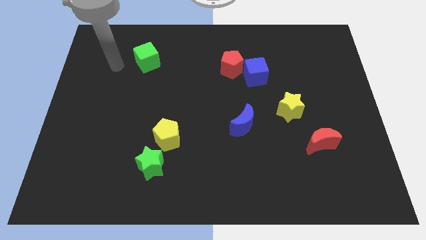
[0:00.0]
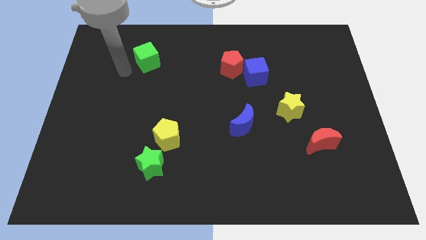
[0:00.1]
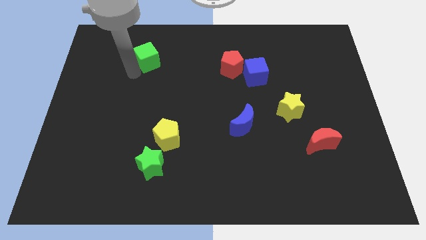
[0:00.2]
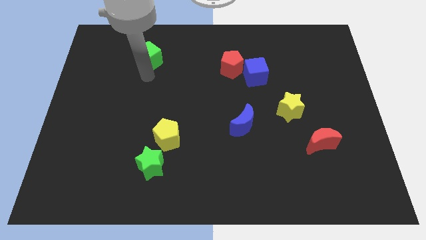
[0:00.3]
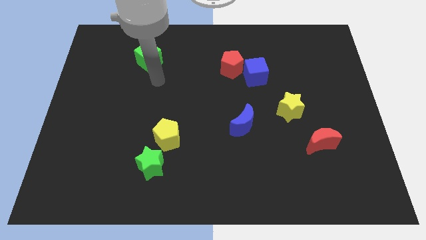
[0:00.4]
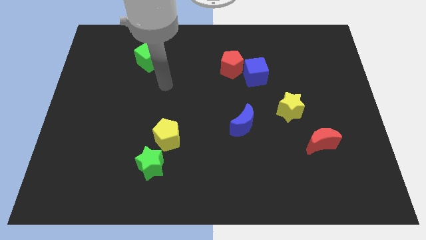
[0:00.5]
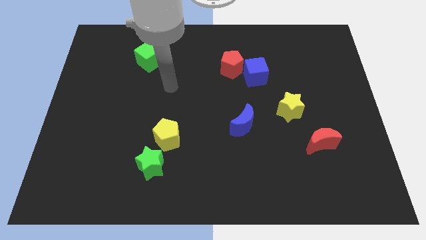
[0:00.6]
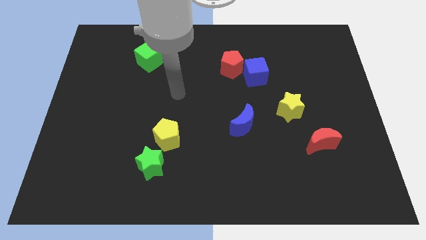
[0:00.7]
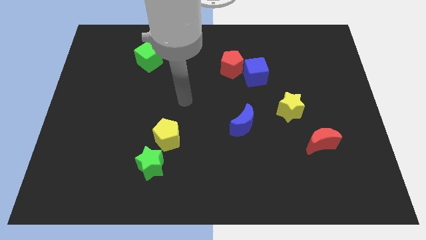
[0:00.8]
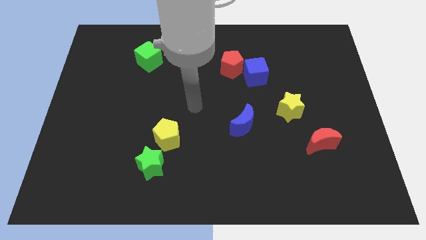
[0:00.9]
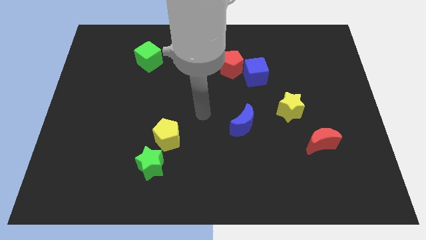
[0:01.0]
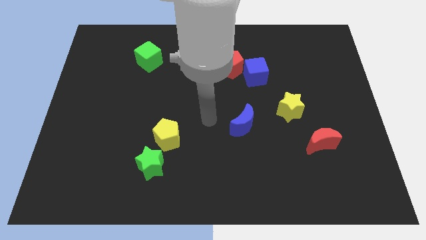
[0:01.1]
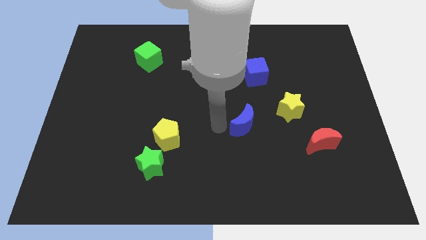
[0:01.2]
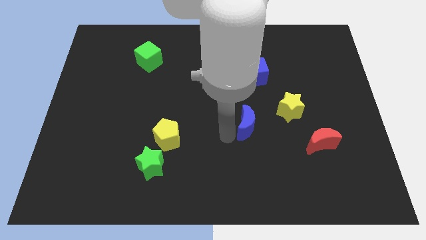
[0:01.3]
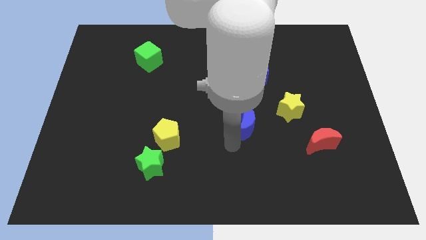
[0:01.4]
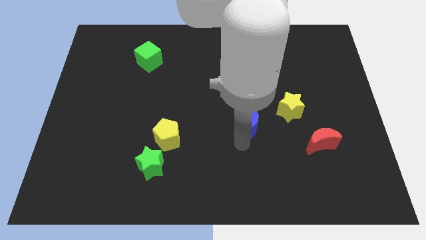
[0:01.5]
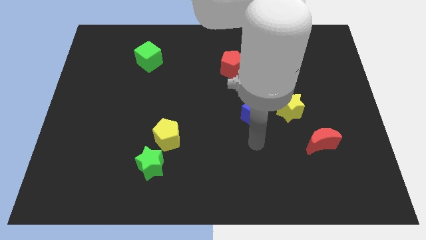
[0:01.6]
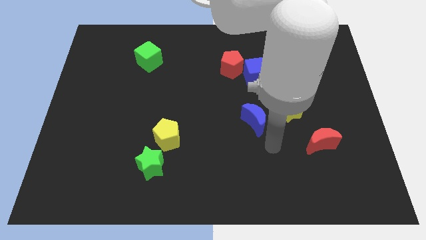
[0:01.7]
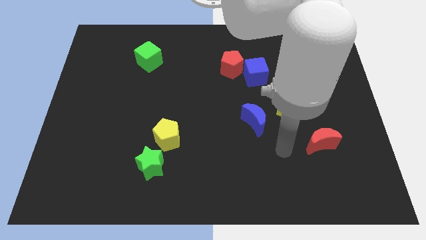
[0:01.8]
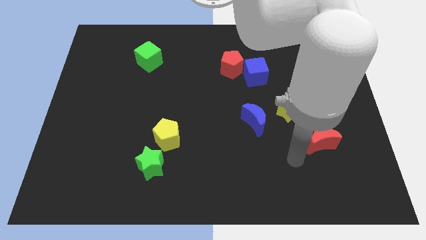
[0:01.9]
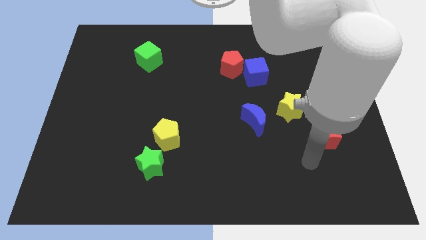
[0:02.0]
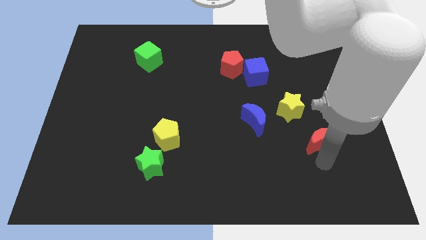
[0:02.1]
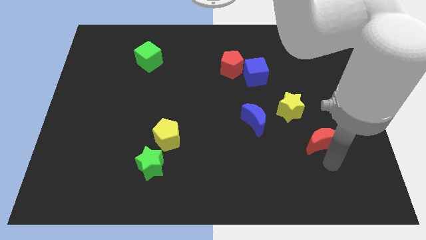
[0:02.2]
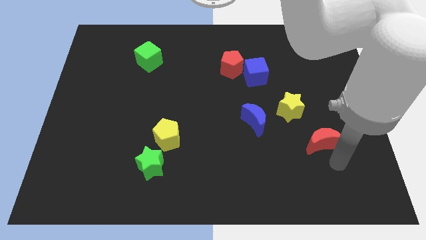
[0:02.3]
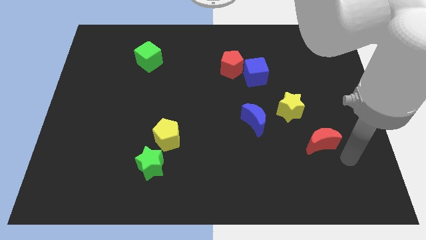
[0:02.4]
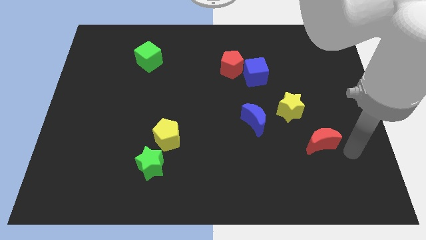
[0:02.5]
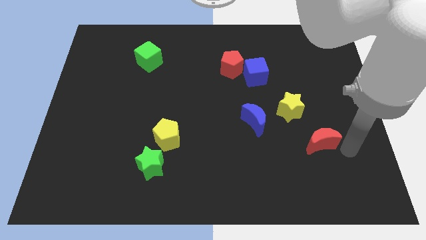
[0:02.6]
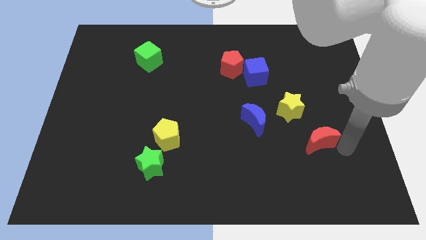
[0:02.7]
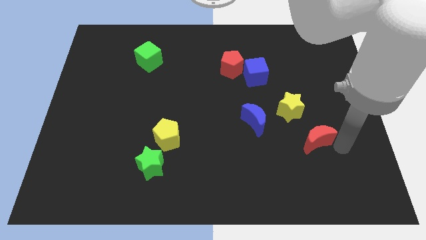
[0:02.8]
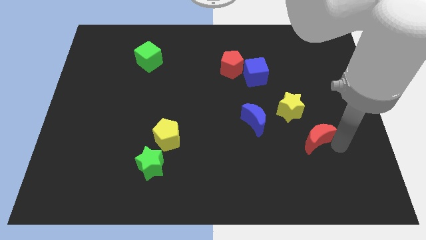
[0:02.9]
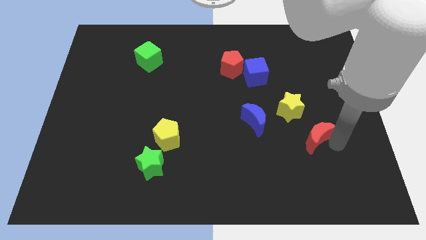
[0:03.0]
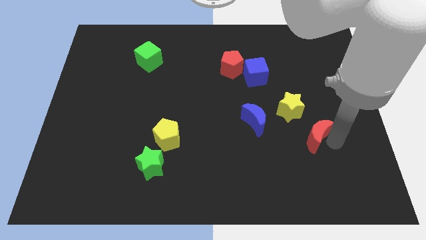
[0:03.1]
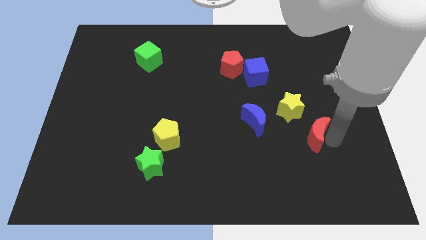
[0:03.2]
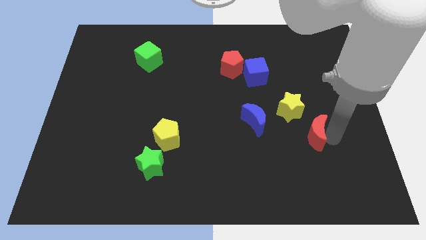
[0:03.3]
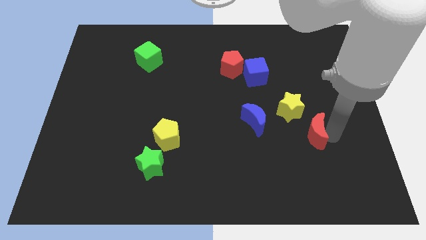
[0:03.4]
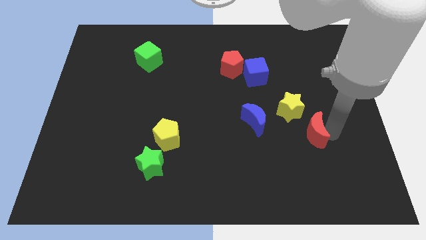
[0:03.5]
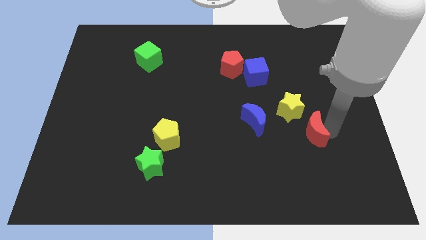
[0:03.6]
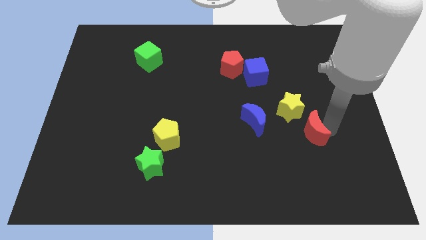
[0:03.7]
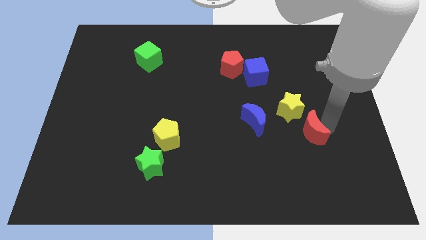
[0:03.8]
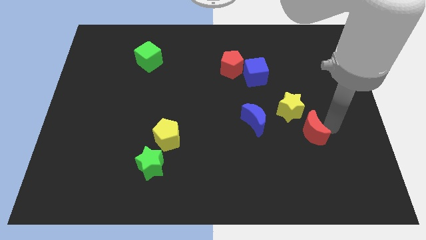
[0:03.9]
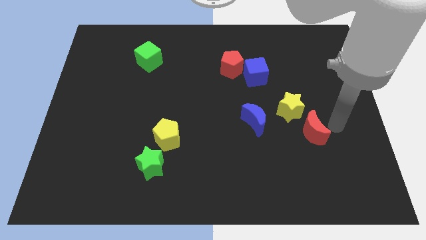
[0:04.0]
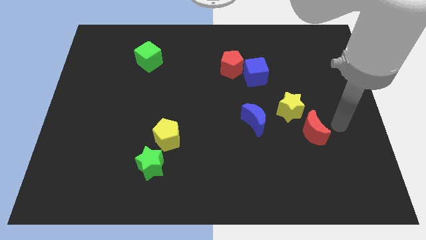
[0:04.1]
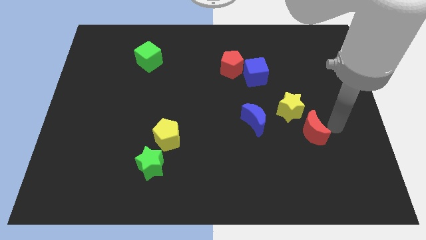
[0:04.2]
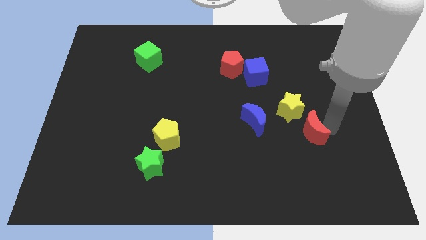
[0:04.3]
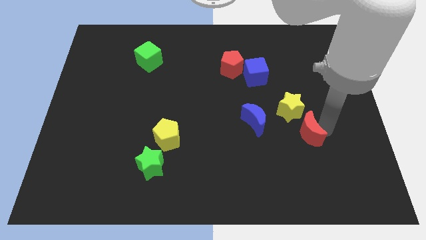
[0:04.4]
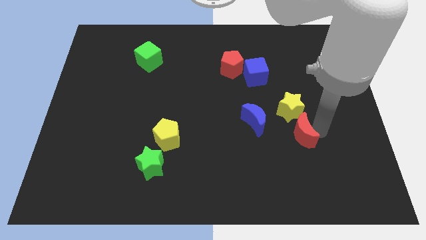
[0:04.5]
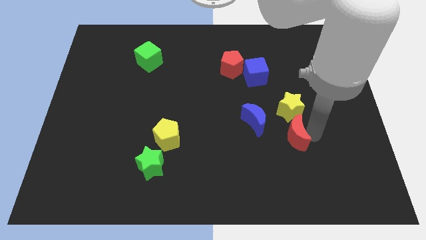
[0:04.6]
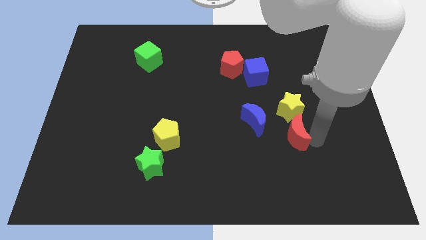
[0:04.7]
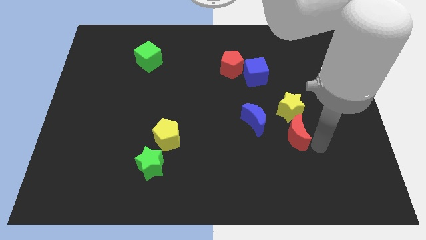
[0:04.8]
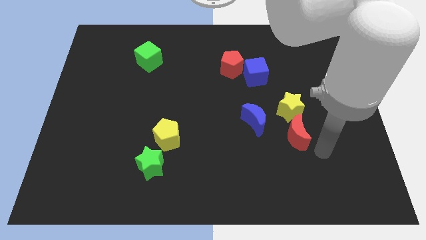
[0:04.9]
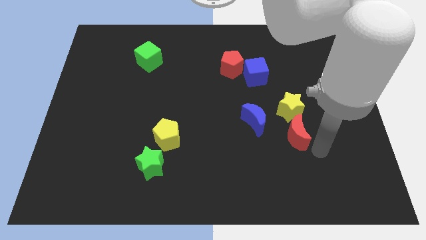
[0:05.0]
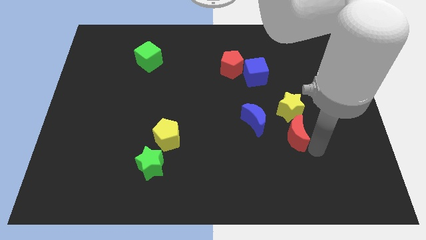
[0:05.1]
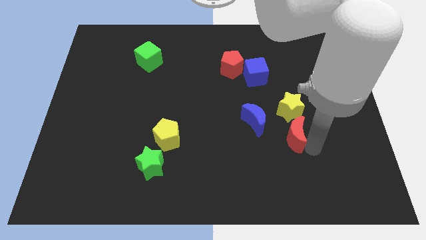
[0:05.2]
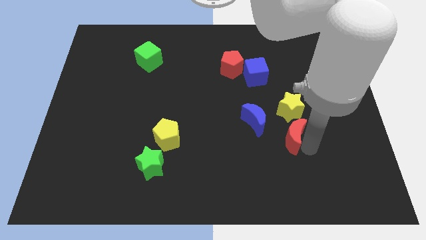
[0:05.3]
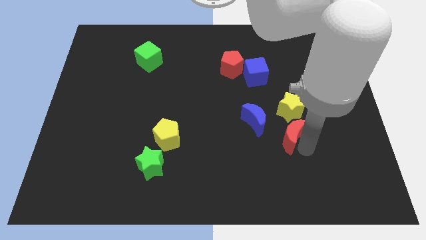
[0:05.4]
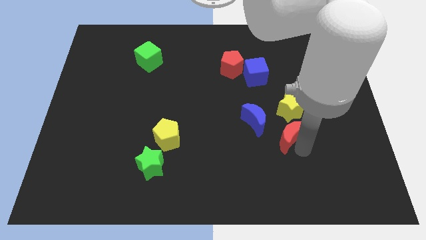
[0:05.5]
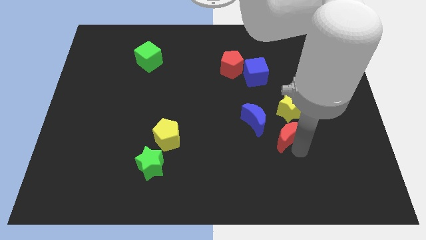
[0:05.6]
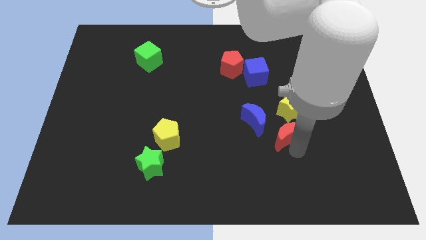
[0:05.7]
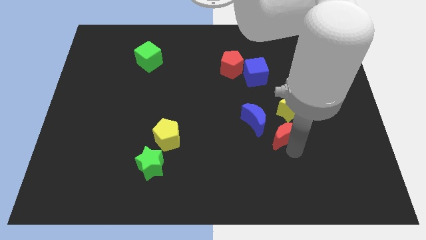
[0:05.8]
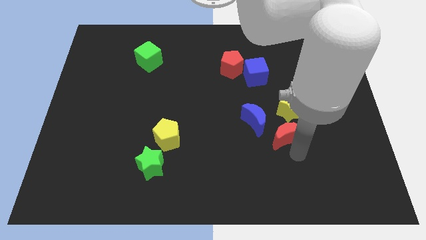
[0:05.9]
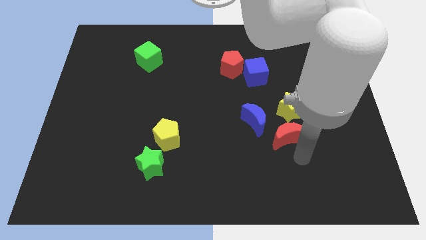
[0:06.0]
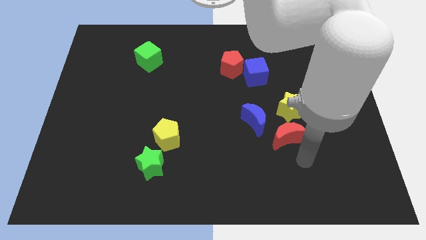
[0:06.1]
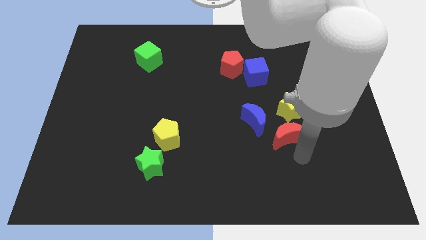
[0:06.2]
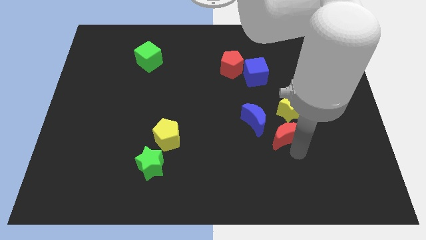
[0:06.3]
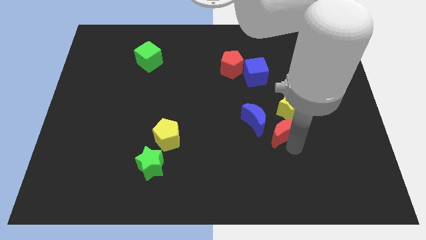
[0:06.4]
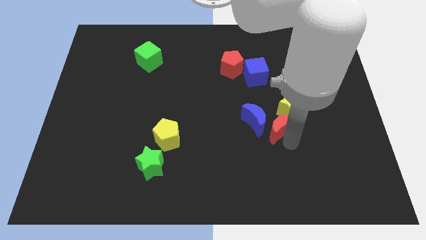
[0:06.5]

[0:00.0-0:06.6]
move the red moon up and left diagonally slightly

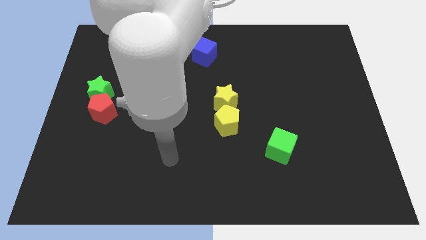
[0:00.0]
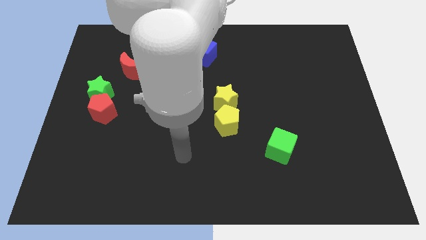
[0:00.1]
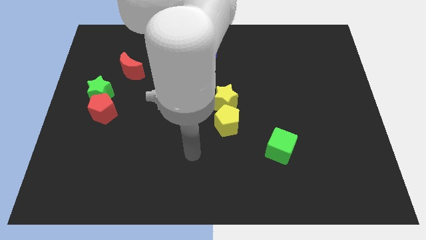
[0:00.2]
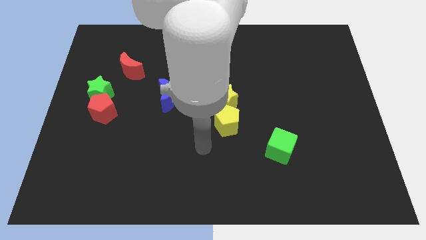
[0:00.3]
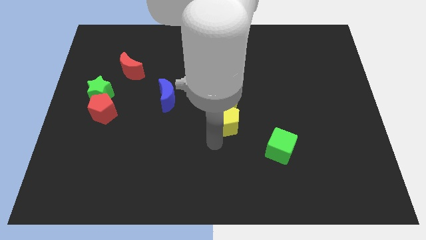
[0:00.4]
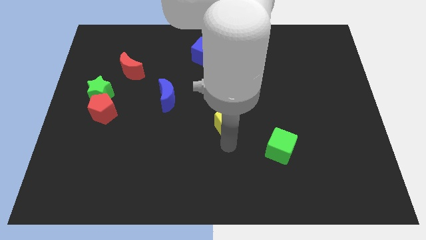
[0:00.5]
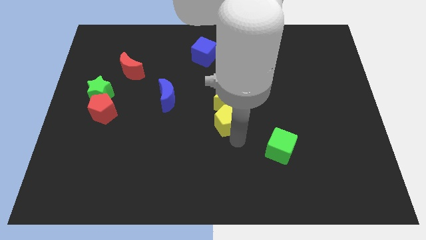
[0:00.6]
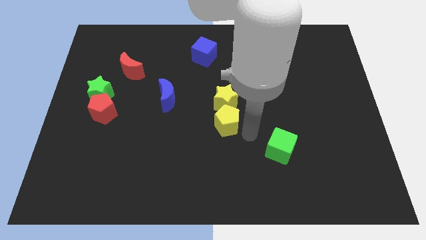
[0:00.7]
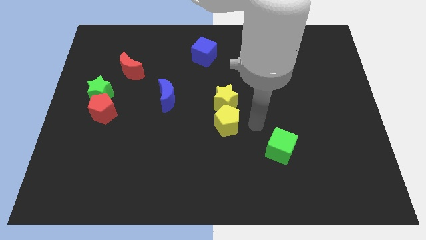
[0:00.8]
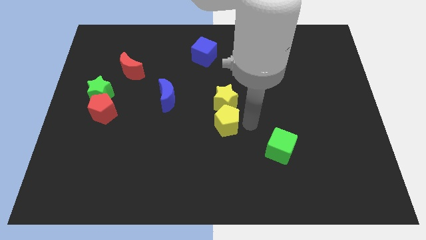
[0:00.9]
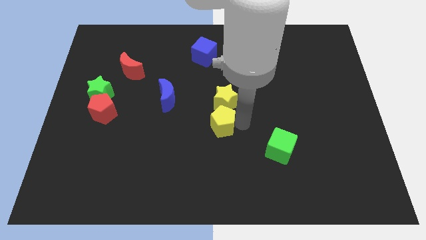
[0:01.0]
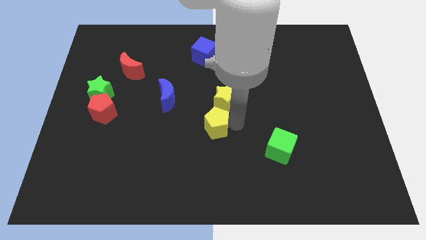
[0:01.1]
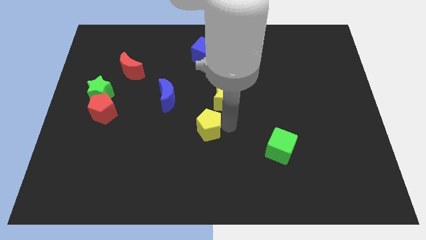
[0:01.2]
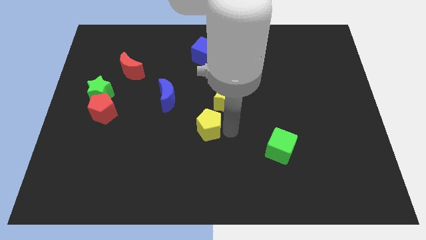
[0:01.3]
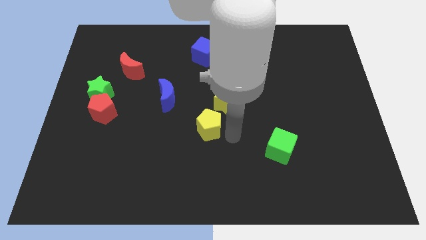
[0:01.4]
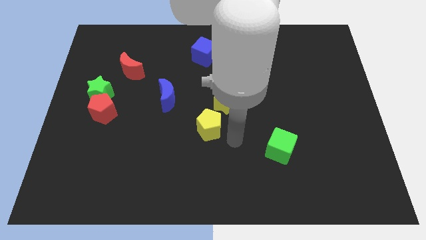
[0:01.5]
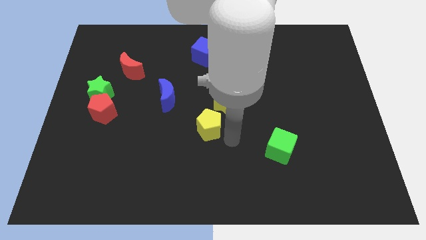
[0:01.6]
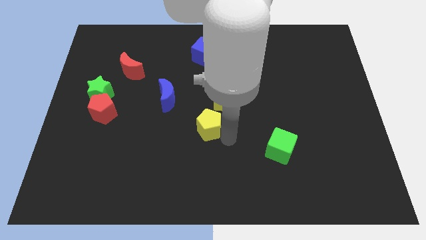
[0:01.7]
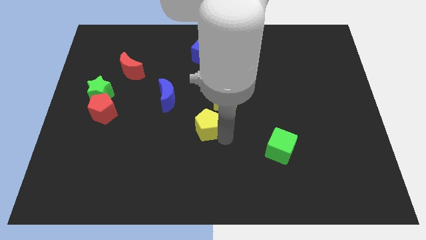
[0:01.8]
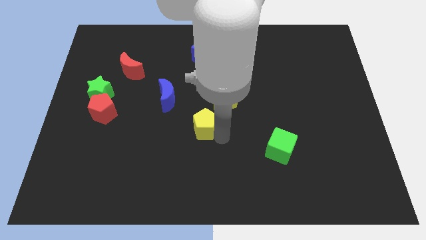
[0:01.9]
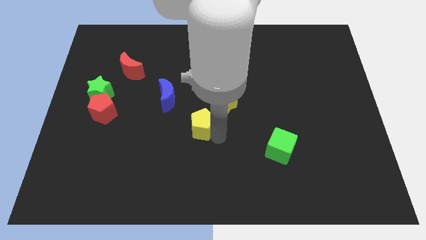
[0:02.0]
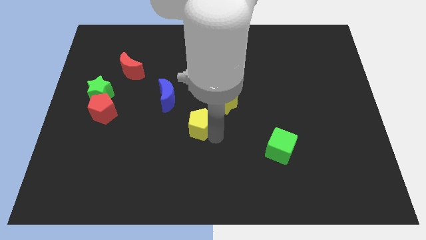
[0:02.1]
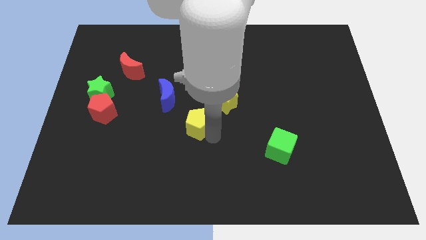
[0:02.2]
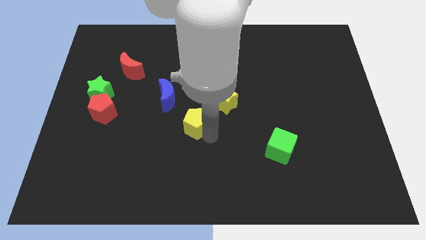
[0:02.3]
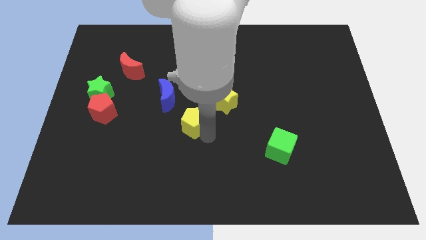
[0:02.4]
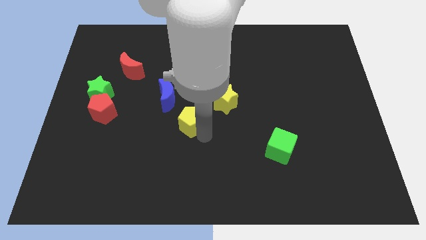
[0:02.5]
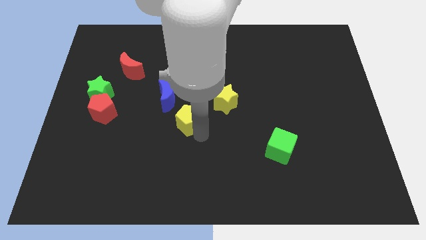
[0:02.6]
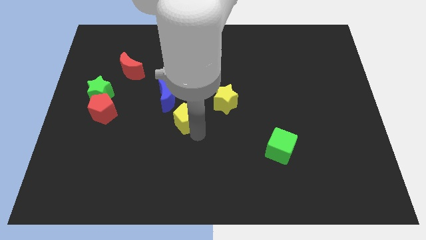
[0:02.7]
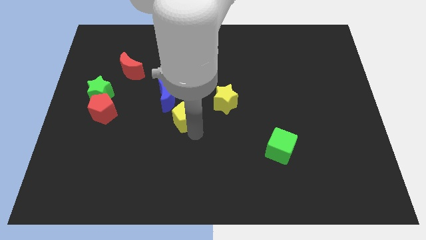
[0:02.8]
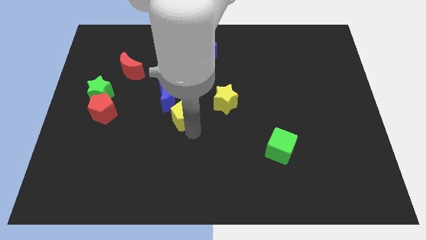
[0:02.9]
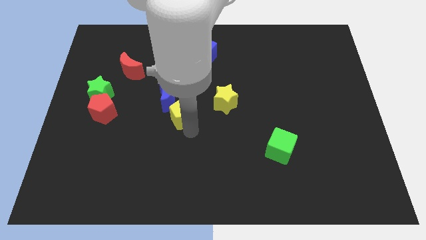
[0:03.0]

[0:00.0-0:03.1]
push the yellow pentagon a little up and left
